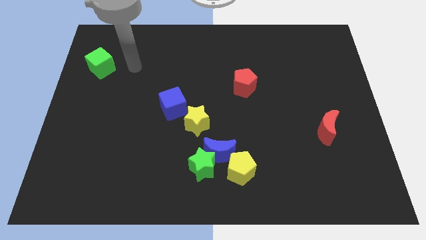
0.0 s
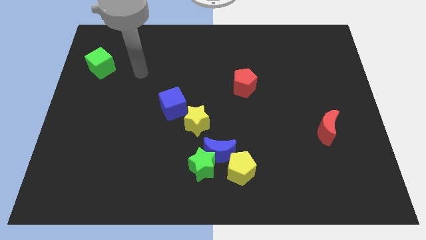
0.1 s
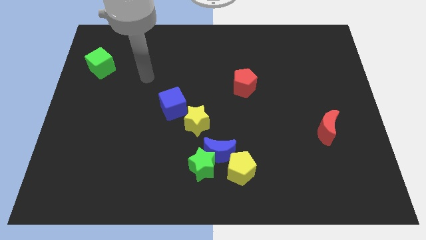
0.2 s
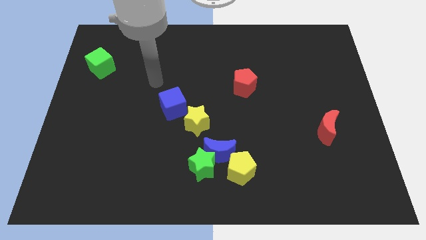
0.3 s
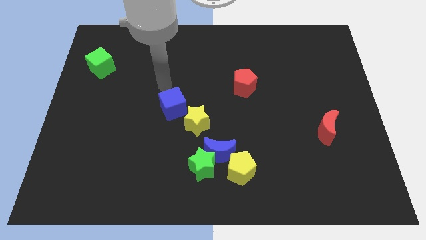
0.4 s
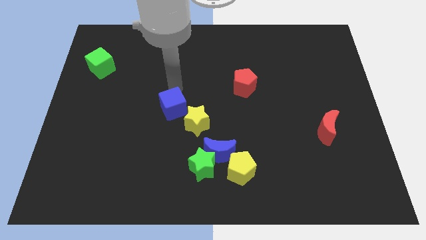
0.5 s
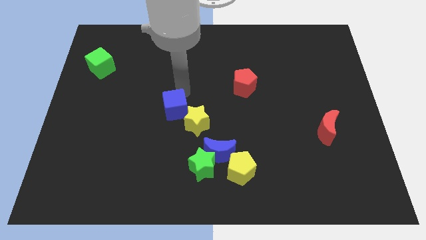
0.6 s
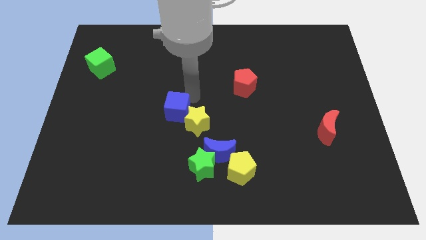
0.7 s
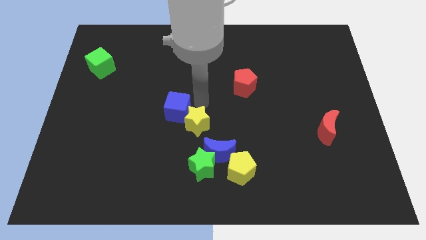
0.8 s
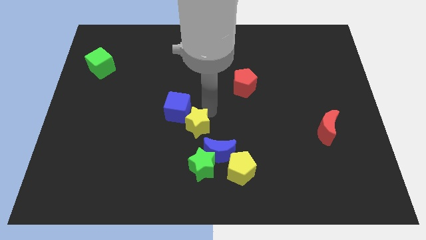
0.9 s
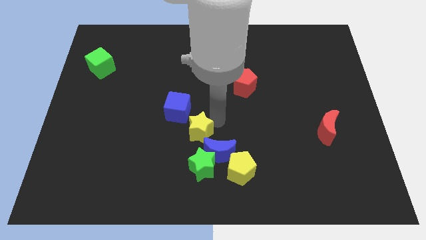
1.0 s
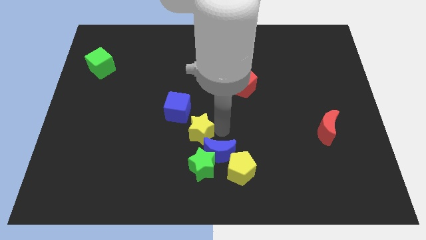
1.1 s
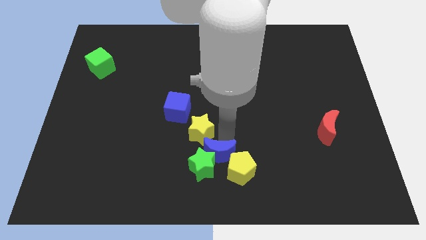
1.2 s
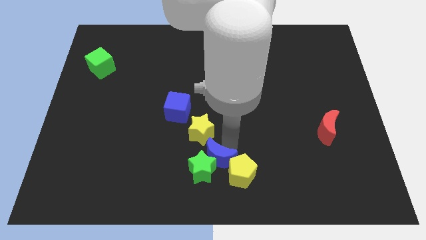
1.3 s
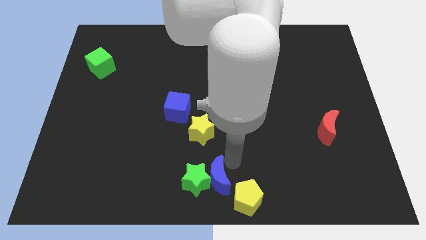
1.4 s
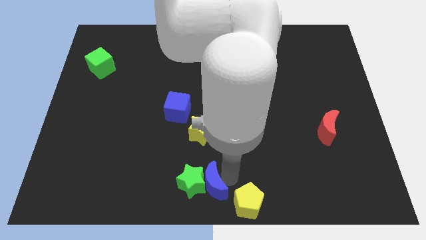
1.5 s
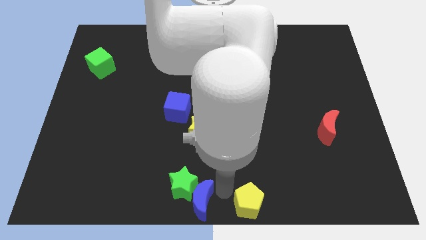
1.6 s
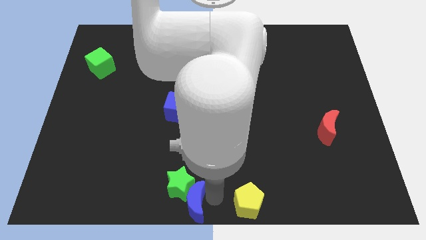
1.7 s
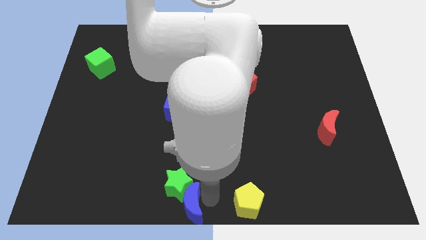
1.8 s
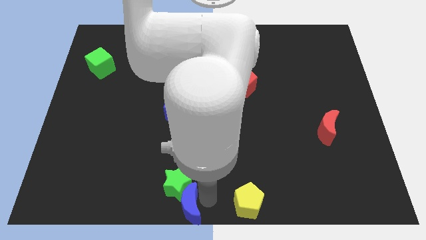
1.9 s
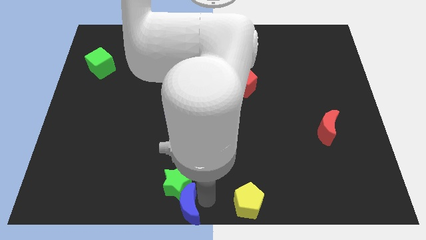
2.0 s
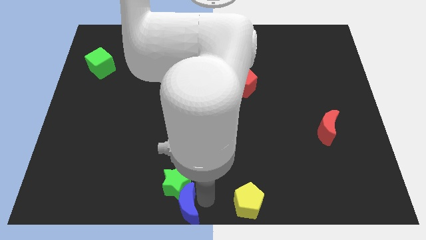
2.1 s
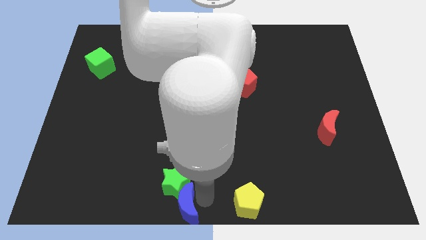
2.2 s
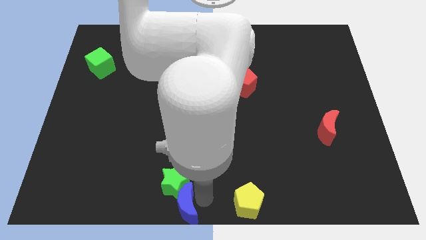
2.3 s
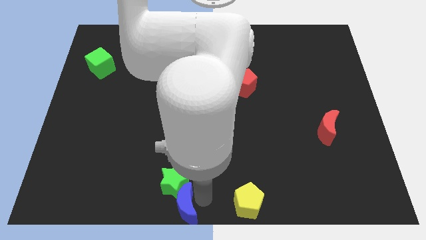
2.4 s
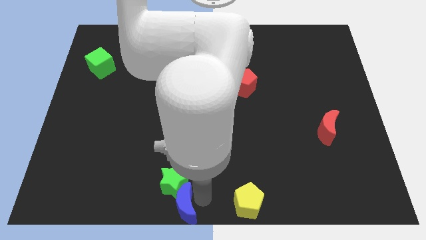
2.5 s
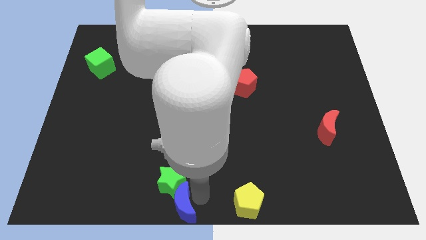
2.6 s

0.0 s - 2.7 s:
move the green star away from the blue moon and yellow pentagon

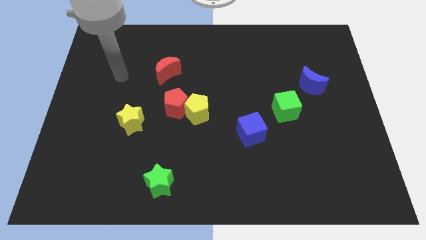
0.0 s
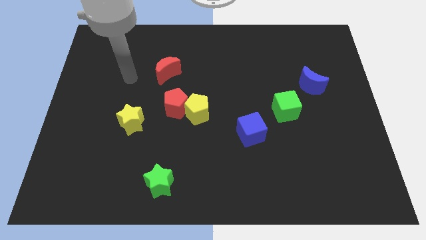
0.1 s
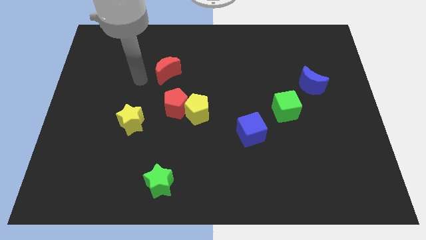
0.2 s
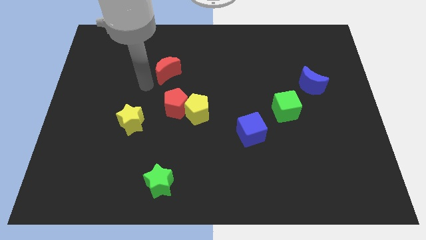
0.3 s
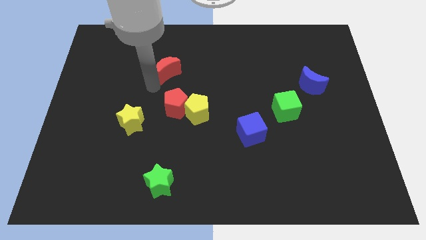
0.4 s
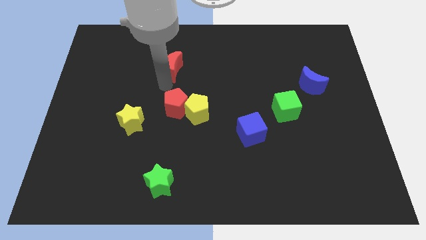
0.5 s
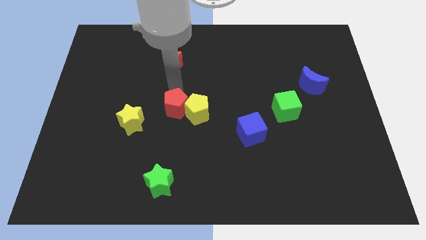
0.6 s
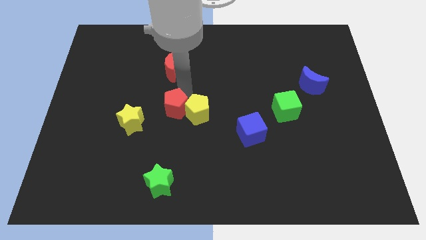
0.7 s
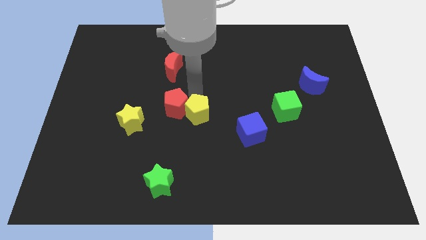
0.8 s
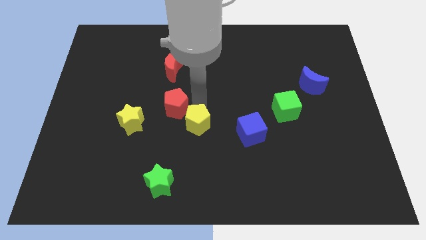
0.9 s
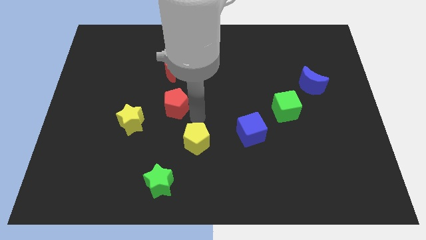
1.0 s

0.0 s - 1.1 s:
pull the red pentagon apart from the yellow pentagon

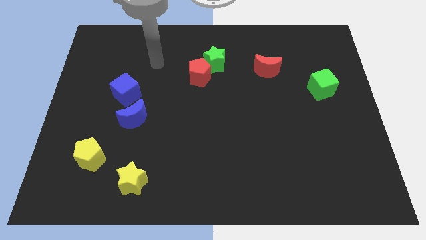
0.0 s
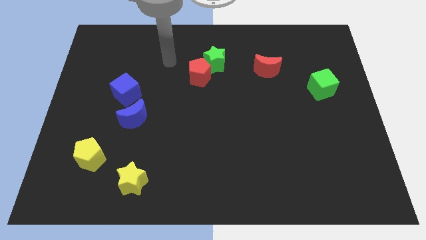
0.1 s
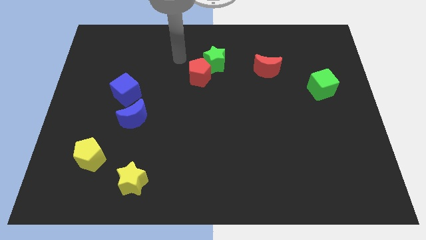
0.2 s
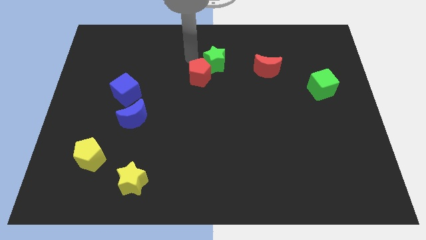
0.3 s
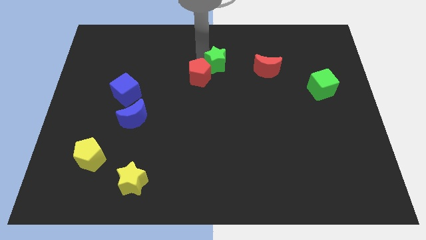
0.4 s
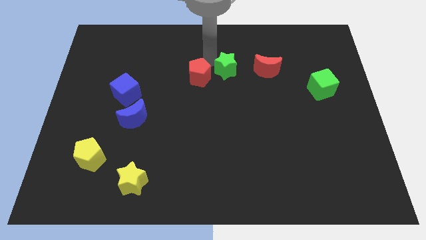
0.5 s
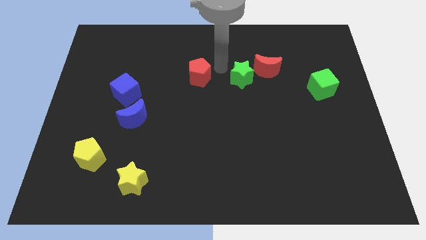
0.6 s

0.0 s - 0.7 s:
pull the red pentagon apart from the green star

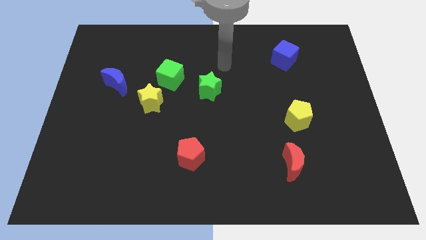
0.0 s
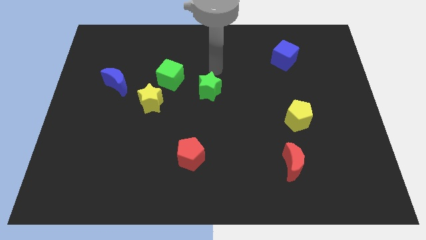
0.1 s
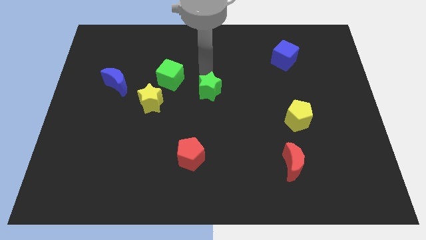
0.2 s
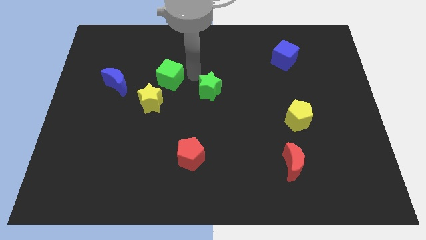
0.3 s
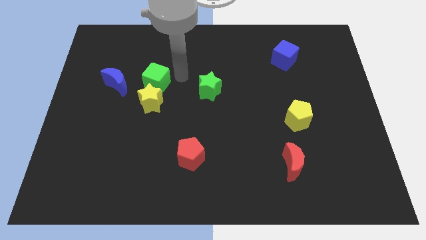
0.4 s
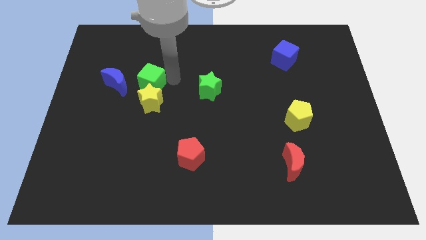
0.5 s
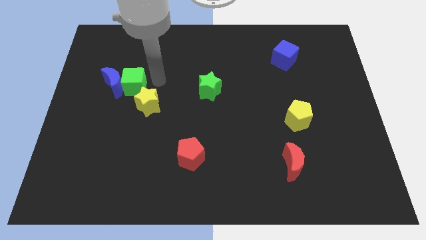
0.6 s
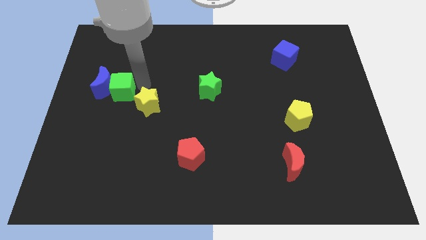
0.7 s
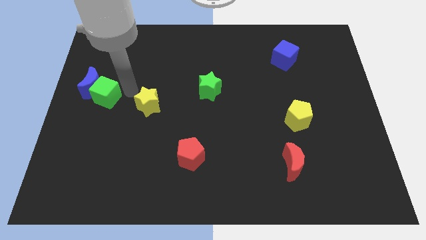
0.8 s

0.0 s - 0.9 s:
separate the yellow star from the green cube

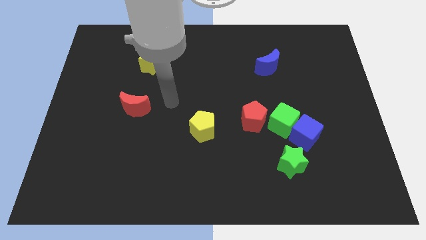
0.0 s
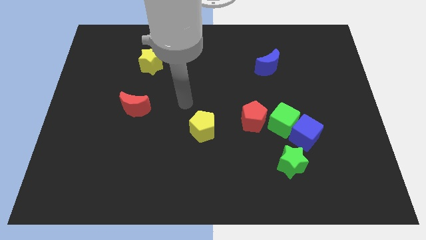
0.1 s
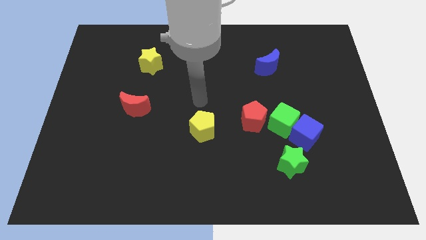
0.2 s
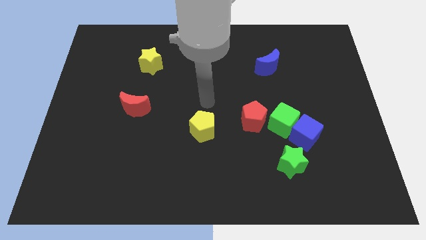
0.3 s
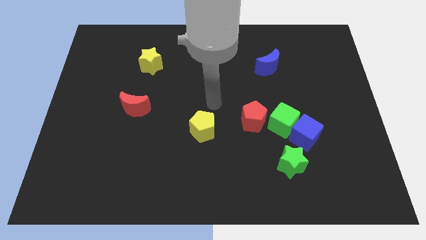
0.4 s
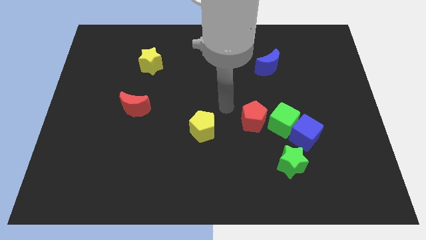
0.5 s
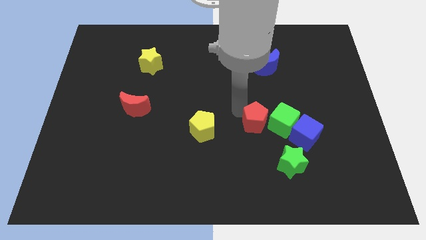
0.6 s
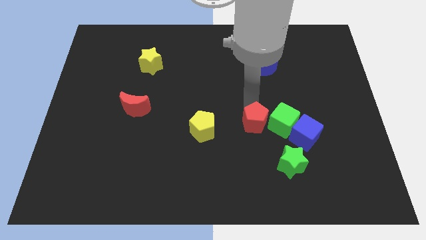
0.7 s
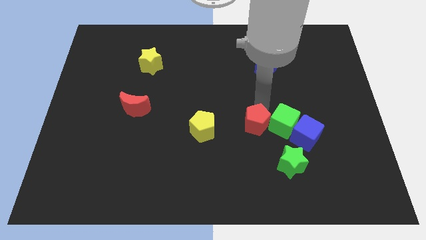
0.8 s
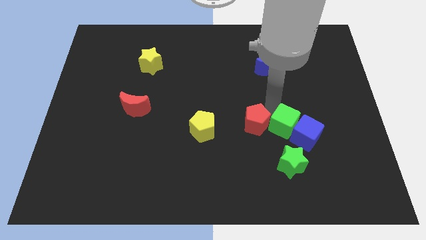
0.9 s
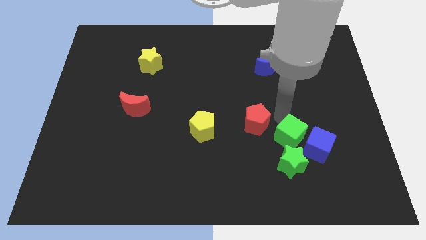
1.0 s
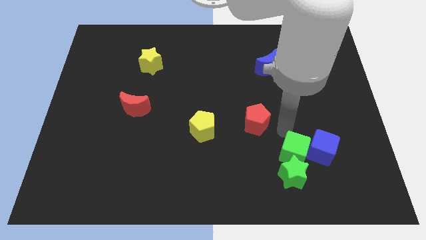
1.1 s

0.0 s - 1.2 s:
move the red pentagon away from the green cube

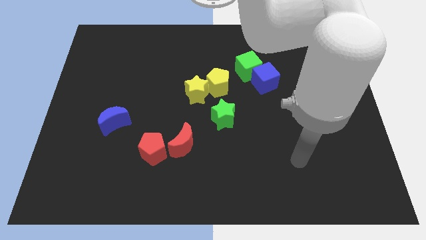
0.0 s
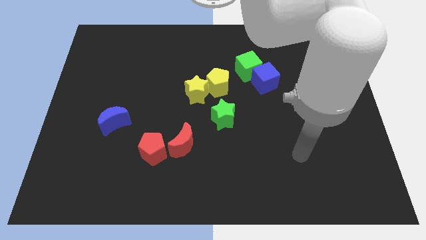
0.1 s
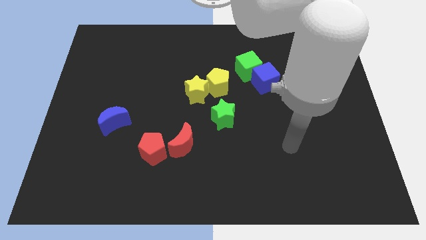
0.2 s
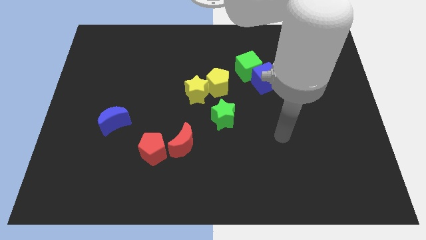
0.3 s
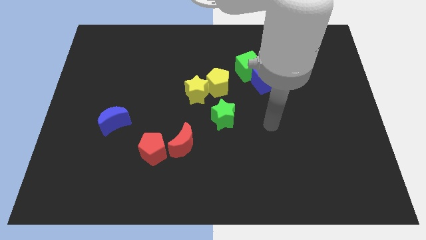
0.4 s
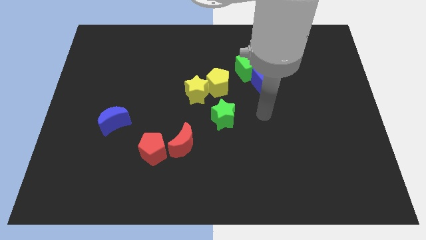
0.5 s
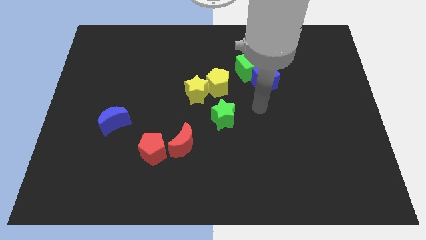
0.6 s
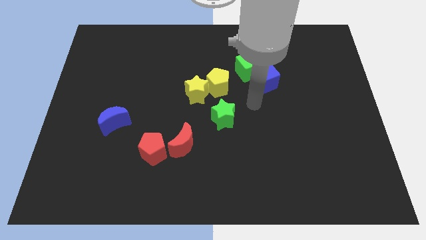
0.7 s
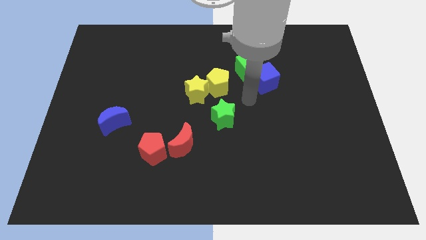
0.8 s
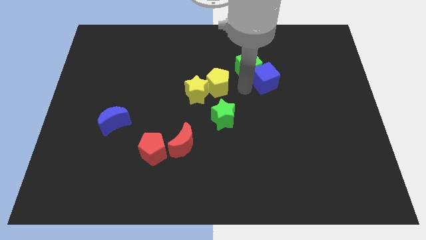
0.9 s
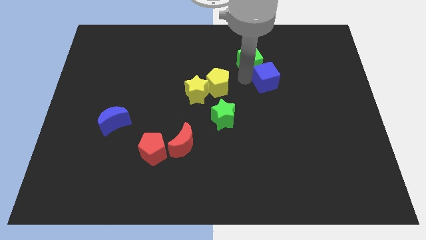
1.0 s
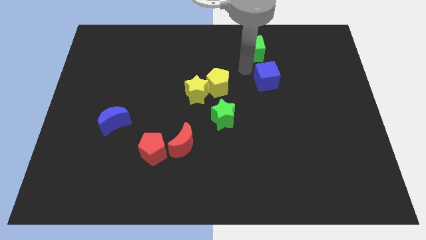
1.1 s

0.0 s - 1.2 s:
separate the blue cube from the green cube

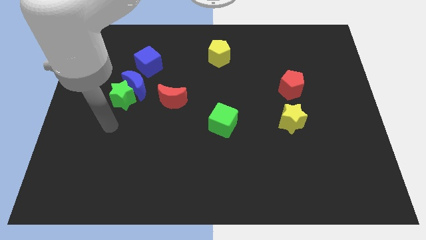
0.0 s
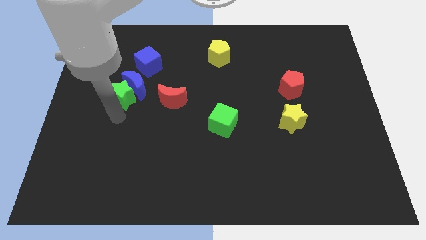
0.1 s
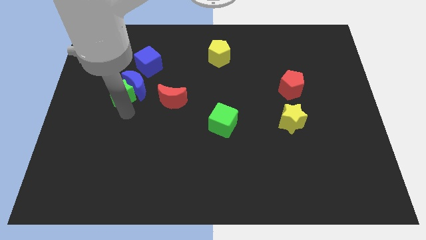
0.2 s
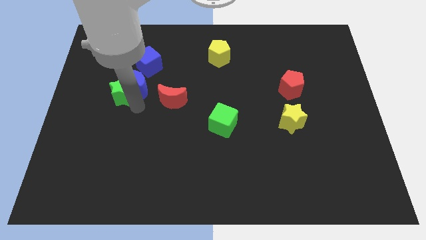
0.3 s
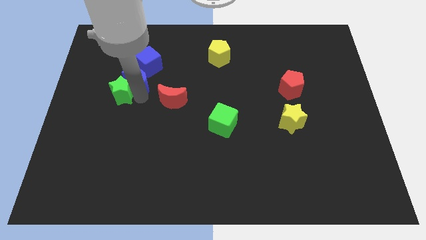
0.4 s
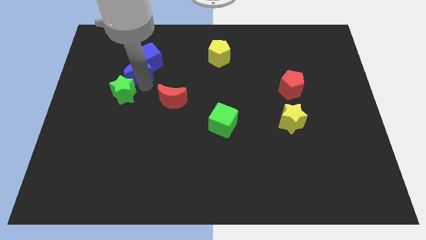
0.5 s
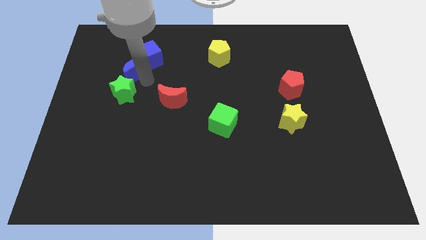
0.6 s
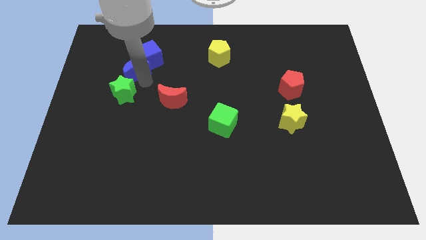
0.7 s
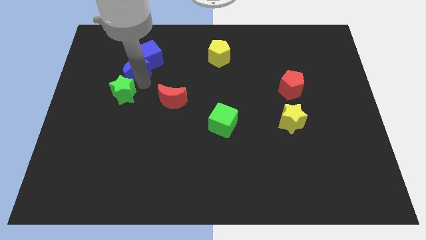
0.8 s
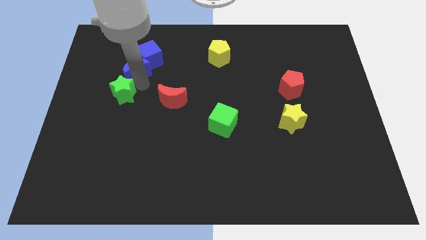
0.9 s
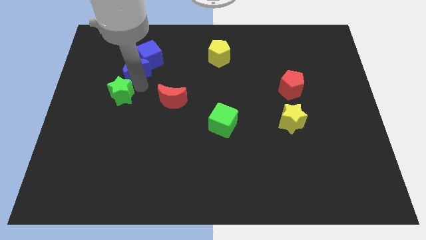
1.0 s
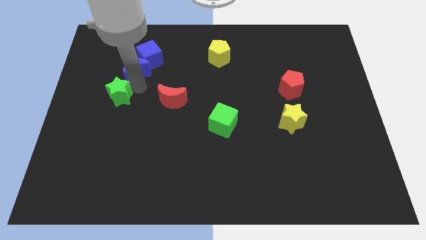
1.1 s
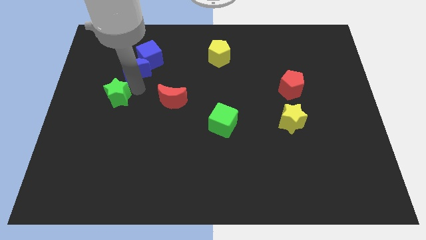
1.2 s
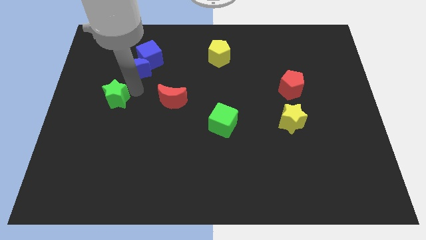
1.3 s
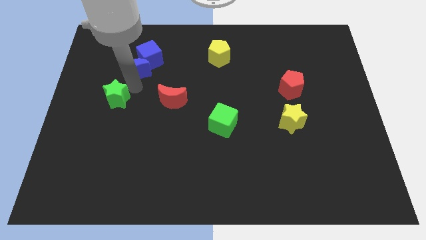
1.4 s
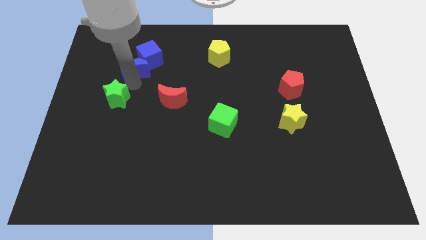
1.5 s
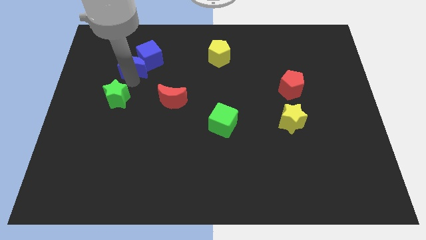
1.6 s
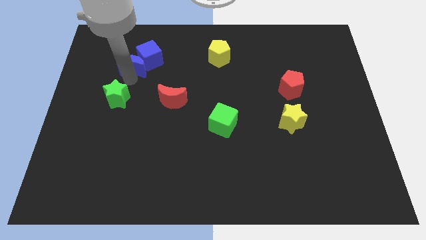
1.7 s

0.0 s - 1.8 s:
pull the green star apart from the blue moon
